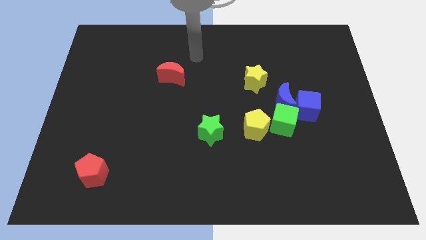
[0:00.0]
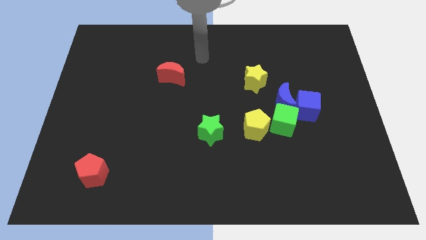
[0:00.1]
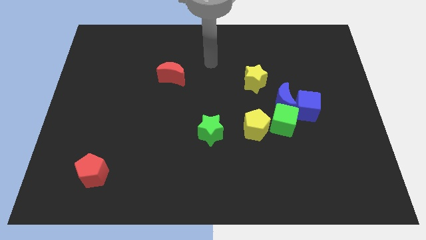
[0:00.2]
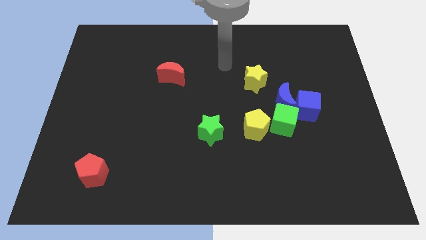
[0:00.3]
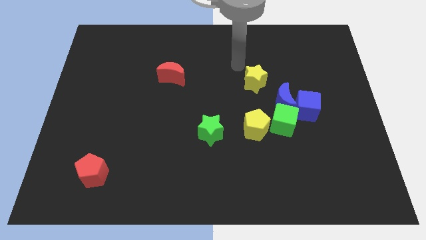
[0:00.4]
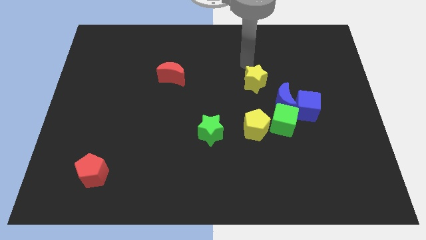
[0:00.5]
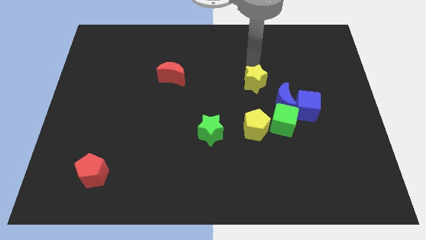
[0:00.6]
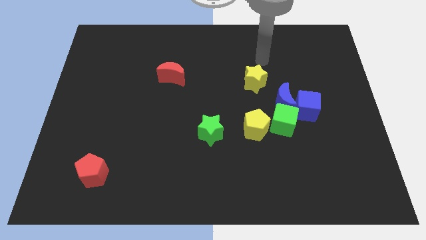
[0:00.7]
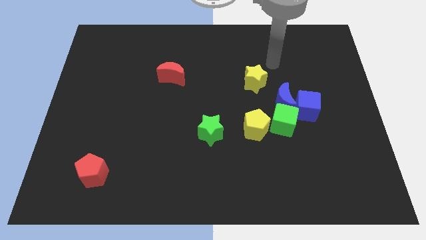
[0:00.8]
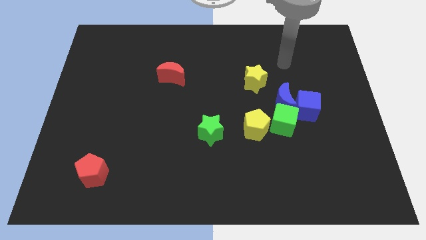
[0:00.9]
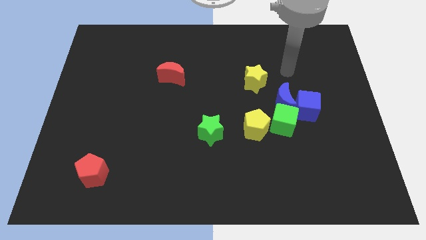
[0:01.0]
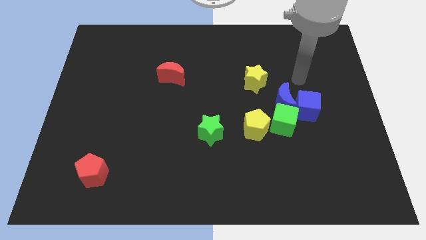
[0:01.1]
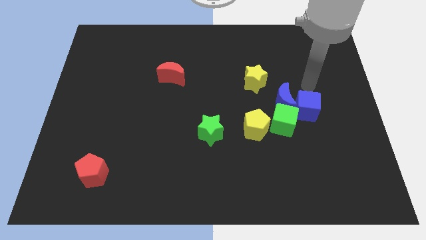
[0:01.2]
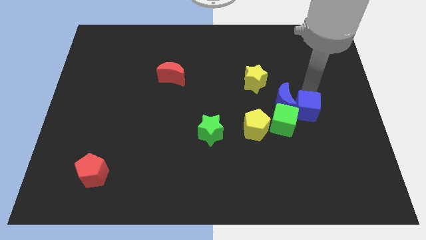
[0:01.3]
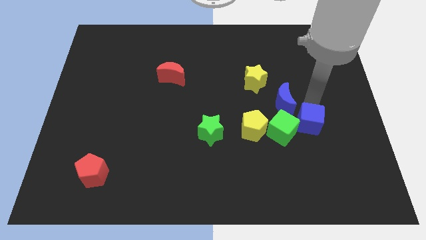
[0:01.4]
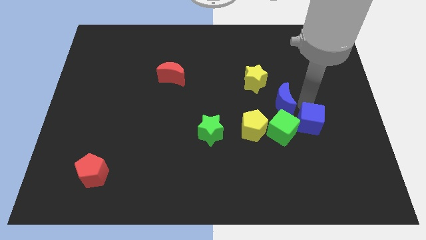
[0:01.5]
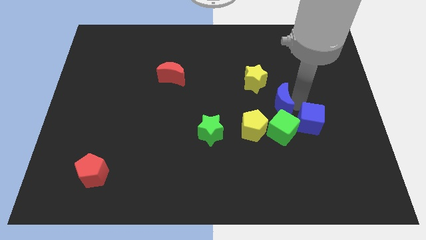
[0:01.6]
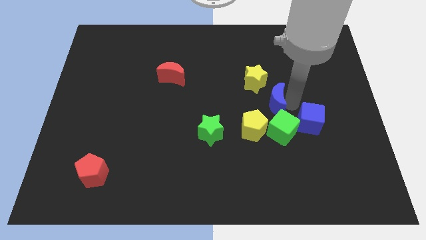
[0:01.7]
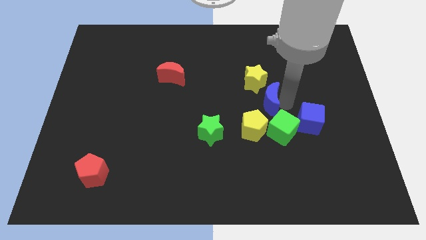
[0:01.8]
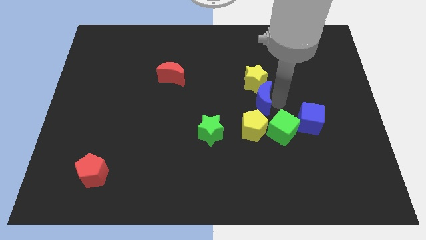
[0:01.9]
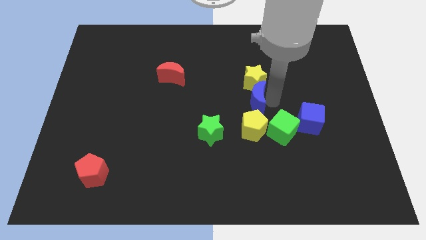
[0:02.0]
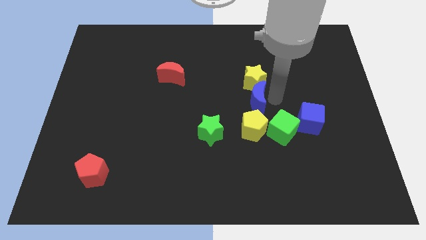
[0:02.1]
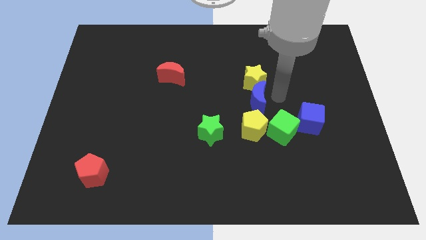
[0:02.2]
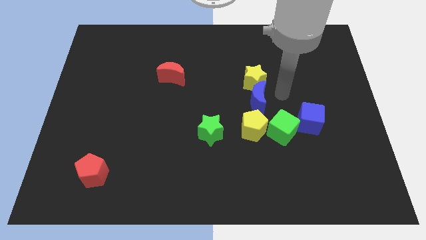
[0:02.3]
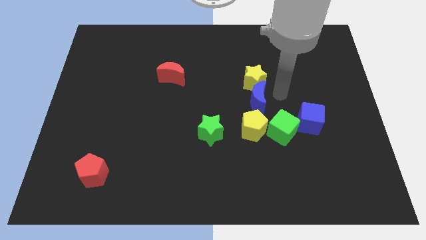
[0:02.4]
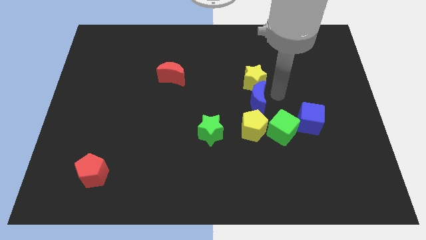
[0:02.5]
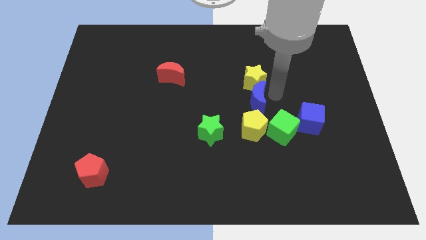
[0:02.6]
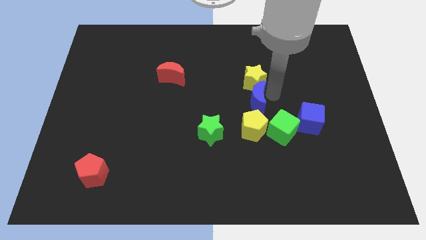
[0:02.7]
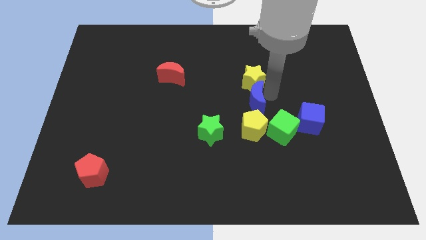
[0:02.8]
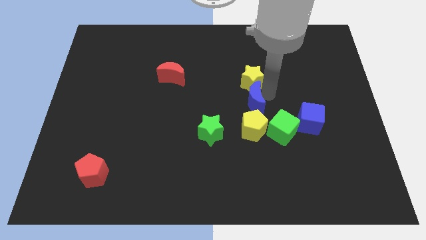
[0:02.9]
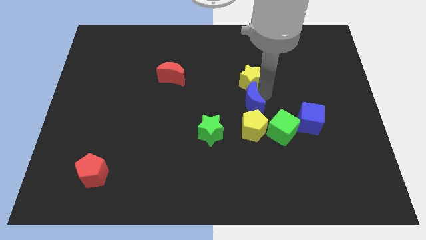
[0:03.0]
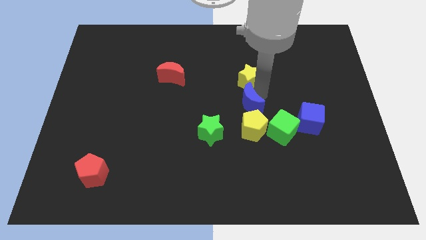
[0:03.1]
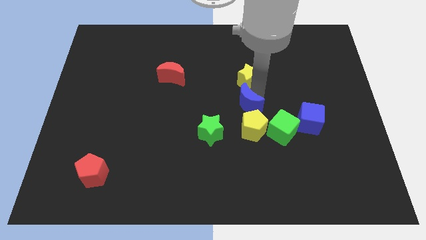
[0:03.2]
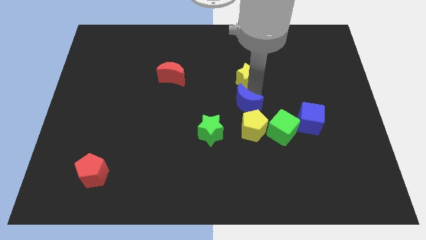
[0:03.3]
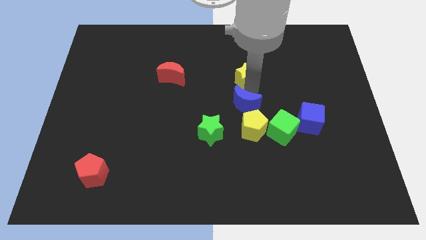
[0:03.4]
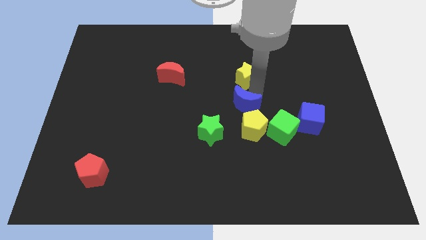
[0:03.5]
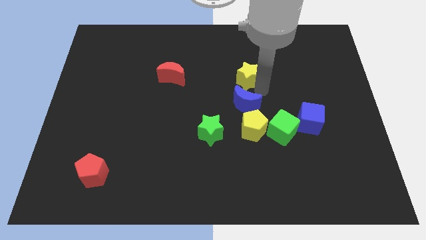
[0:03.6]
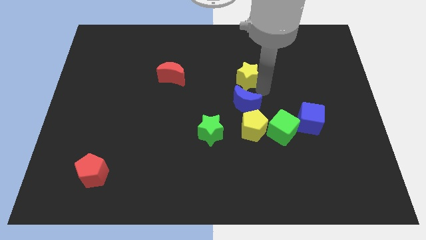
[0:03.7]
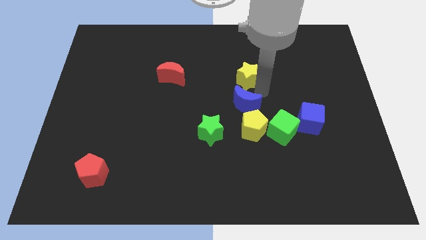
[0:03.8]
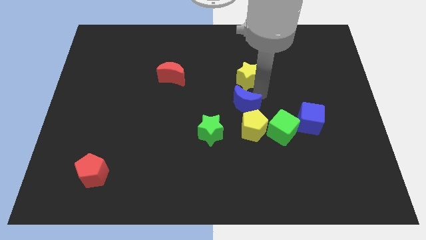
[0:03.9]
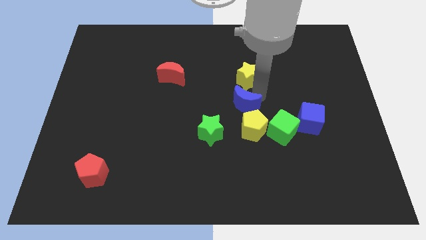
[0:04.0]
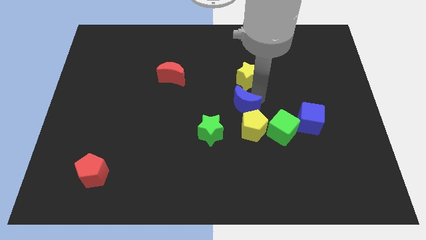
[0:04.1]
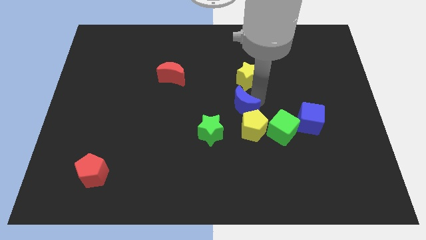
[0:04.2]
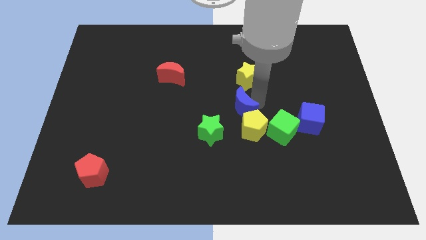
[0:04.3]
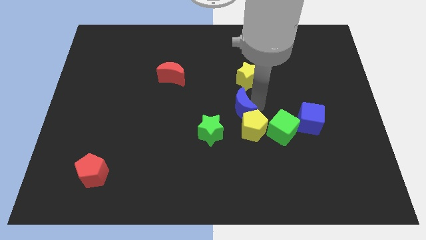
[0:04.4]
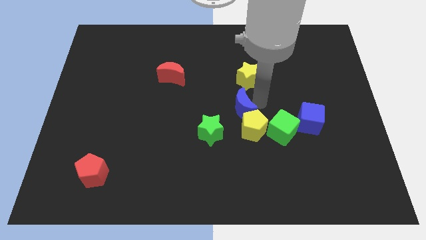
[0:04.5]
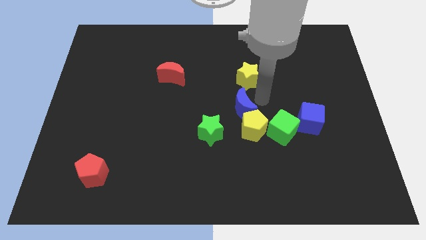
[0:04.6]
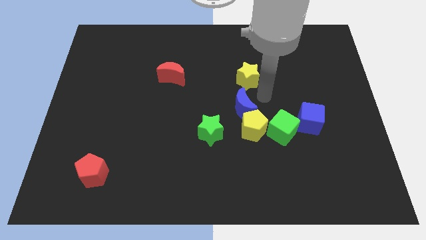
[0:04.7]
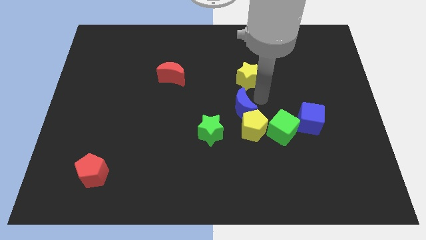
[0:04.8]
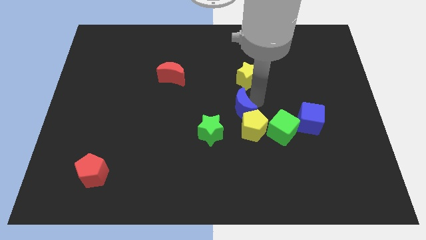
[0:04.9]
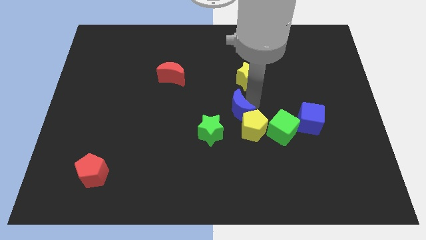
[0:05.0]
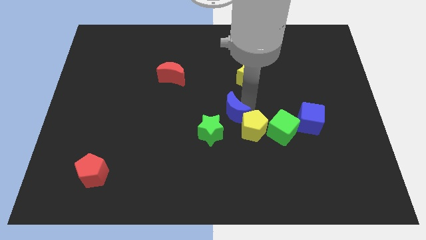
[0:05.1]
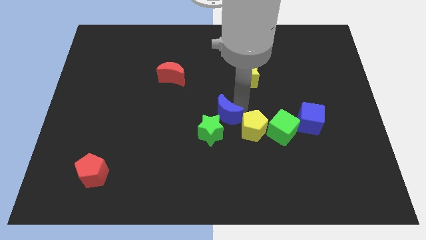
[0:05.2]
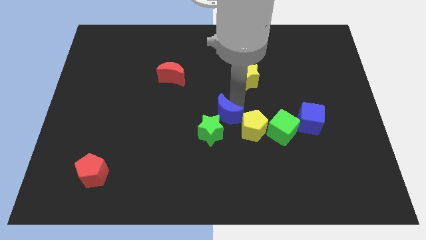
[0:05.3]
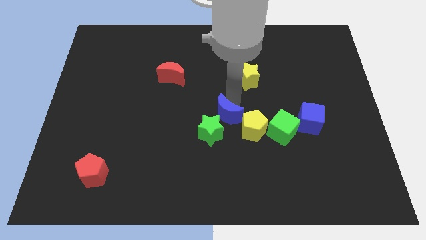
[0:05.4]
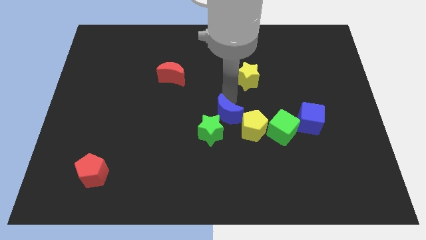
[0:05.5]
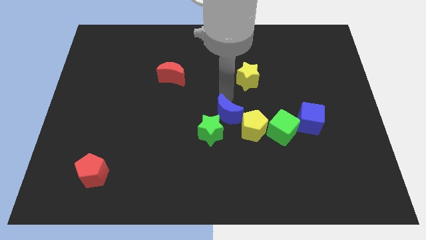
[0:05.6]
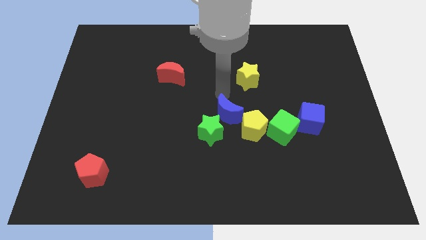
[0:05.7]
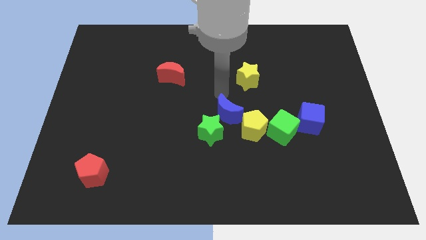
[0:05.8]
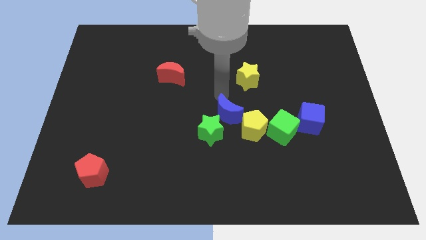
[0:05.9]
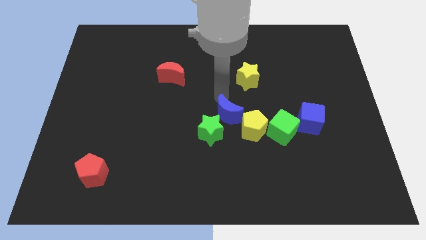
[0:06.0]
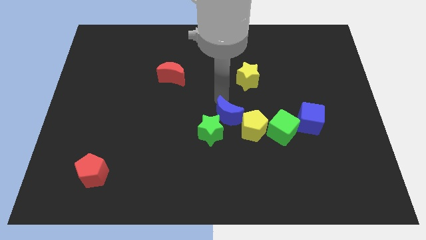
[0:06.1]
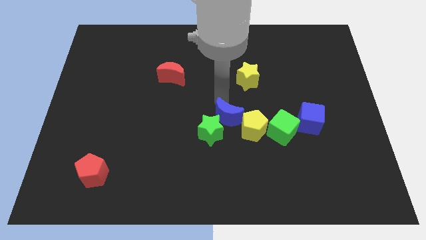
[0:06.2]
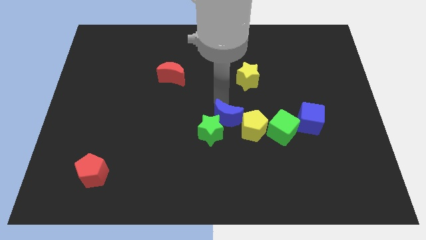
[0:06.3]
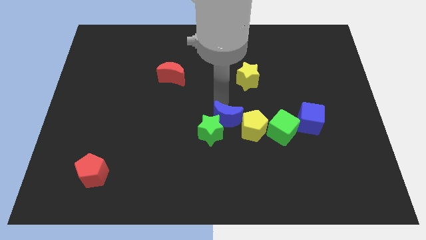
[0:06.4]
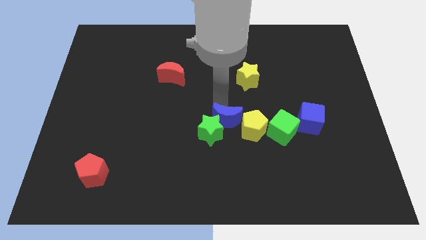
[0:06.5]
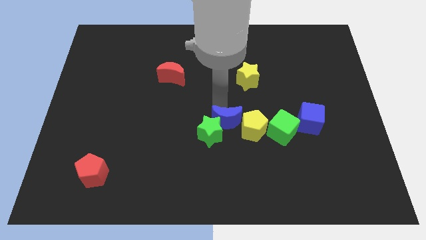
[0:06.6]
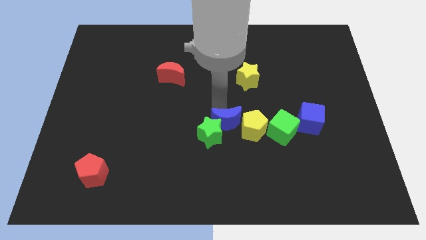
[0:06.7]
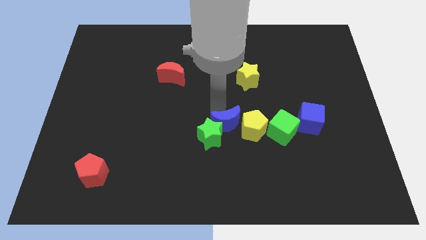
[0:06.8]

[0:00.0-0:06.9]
slide the blue moon to the bottom left side of the yellow pentagon

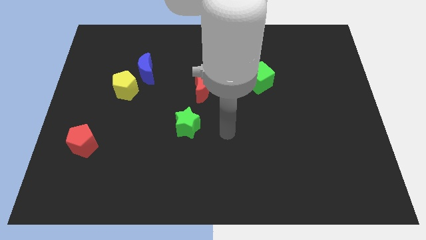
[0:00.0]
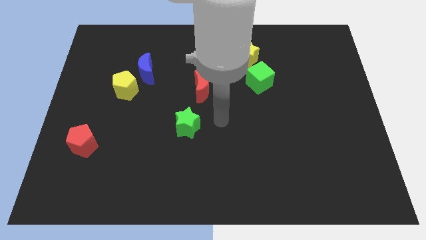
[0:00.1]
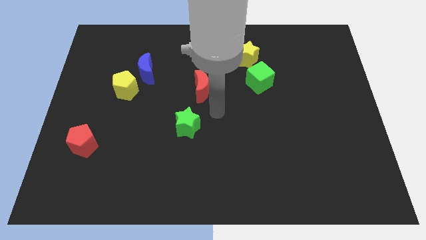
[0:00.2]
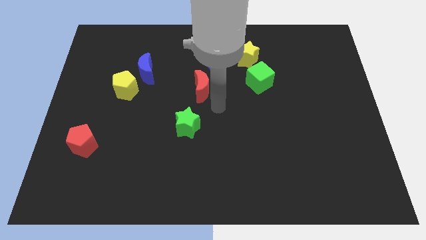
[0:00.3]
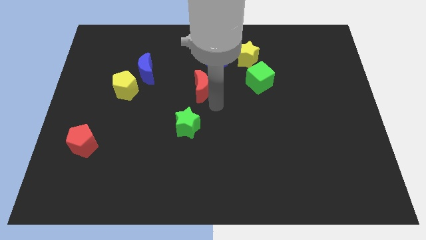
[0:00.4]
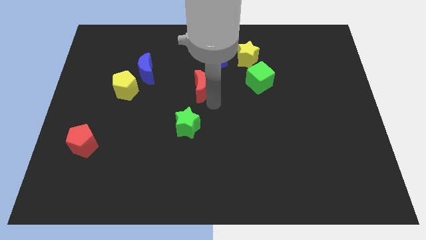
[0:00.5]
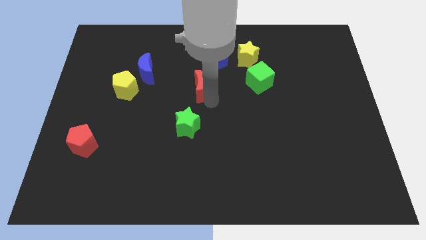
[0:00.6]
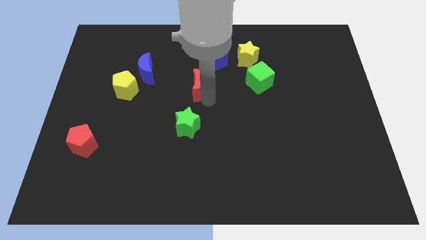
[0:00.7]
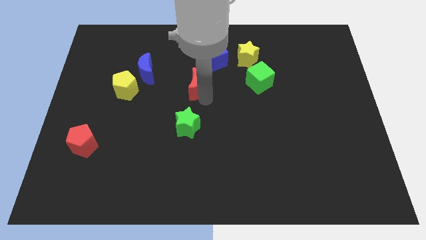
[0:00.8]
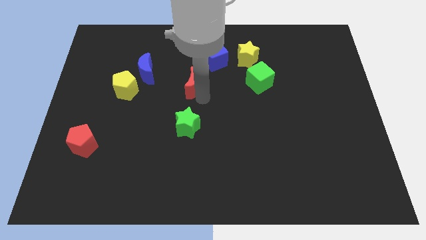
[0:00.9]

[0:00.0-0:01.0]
move the red moon just right of the blue moon
